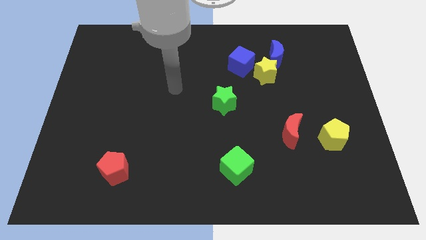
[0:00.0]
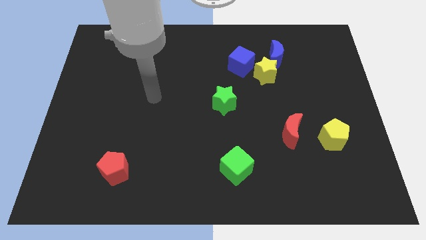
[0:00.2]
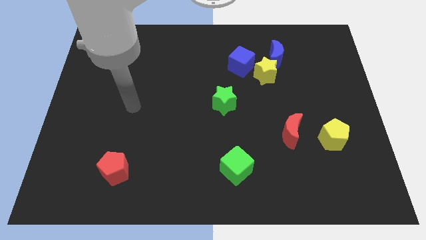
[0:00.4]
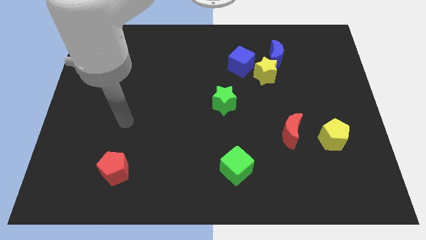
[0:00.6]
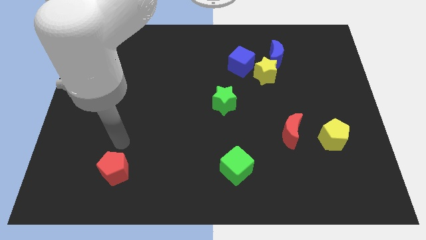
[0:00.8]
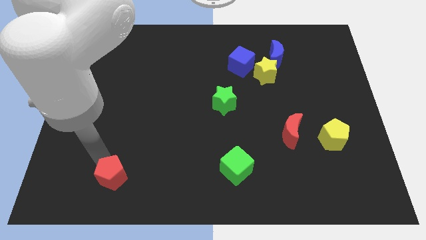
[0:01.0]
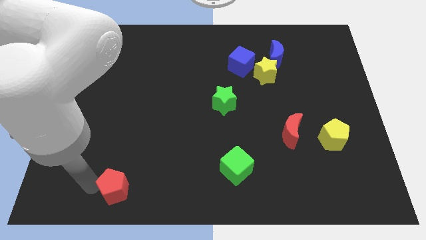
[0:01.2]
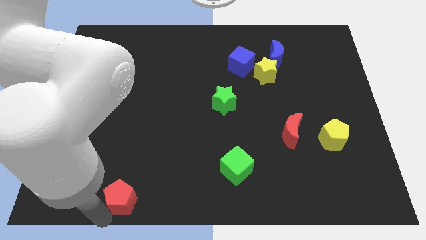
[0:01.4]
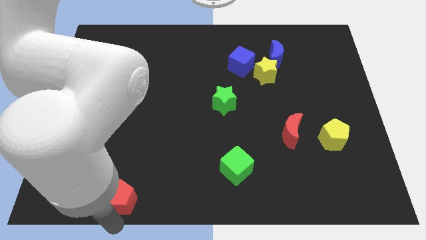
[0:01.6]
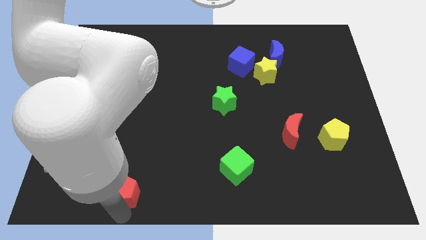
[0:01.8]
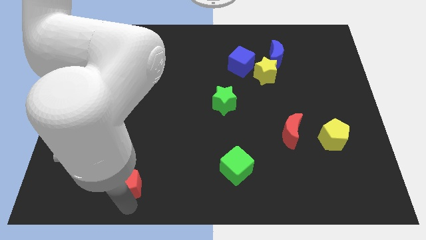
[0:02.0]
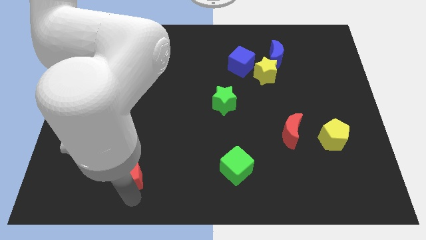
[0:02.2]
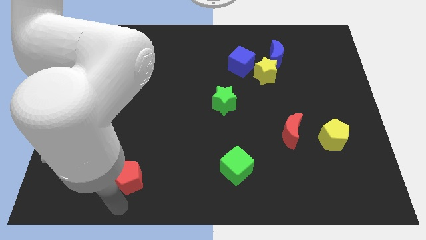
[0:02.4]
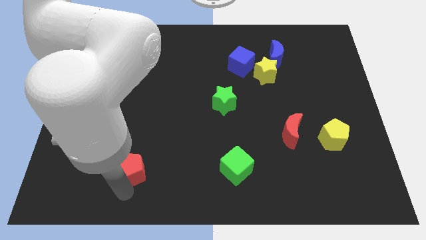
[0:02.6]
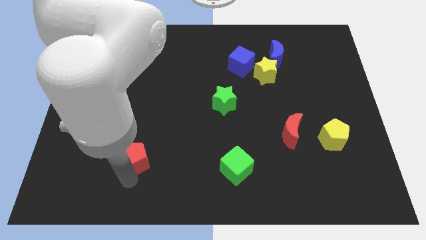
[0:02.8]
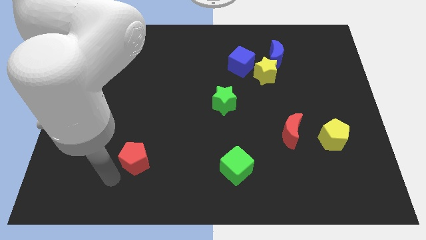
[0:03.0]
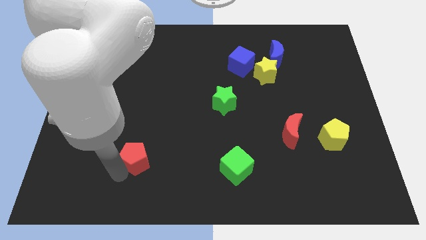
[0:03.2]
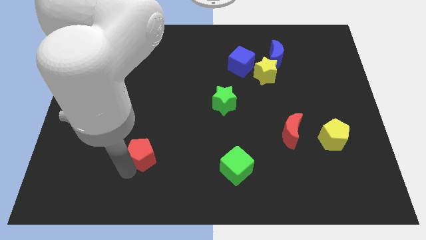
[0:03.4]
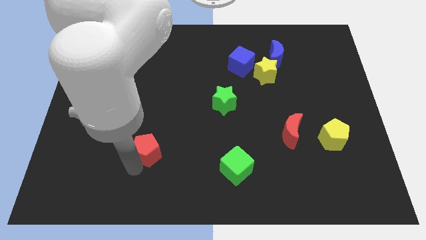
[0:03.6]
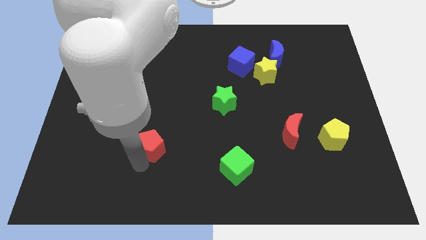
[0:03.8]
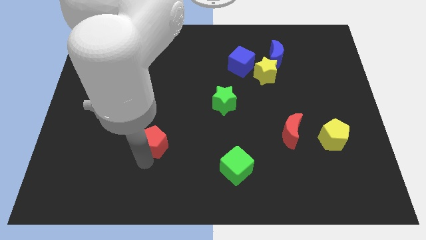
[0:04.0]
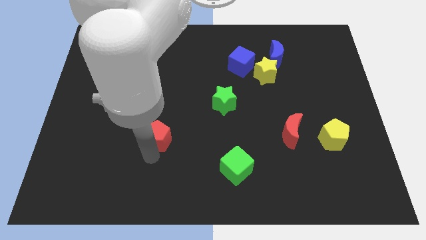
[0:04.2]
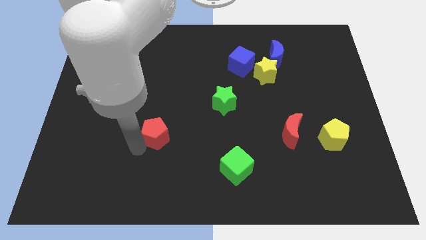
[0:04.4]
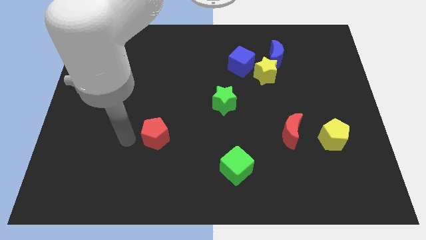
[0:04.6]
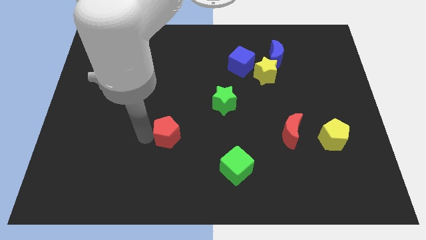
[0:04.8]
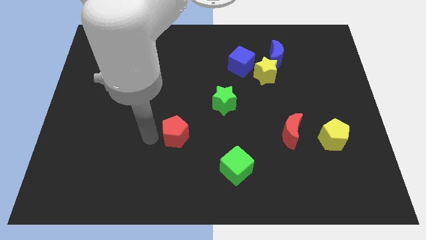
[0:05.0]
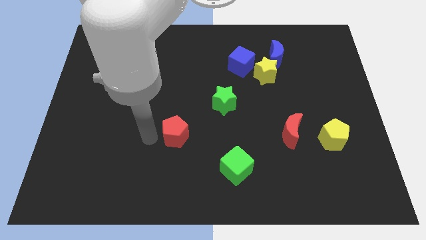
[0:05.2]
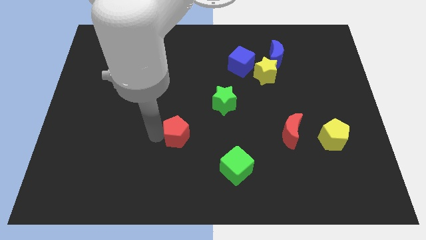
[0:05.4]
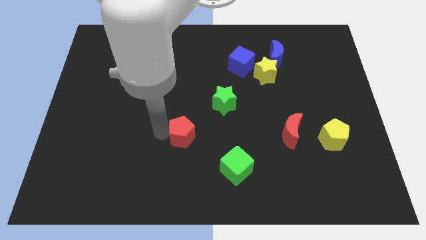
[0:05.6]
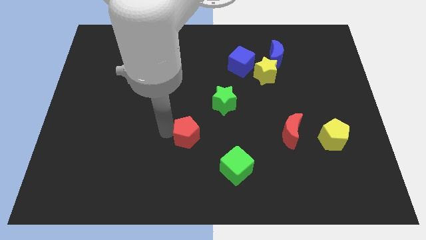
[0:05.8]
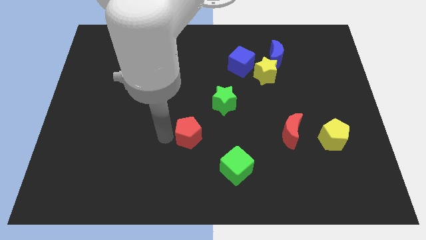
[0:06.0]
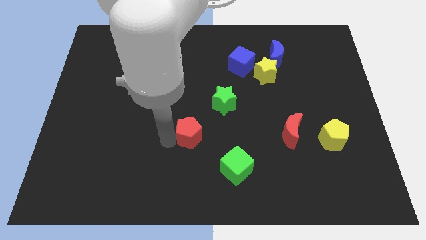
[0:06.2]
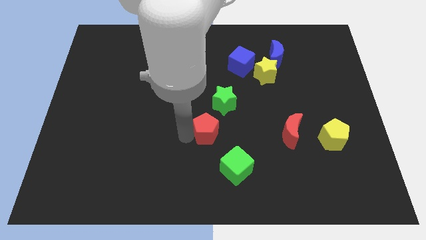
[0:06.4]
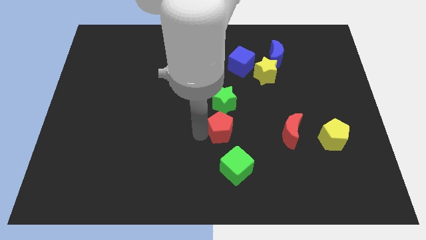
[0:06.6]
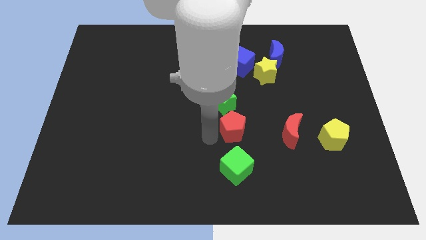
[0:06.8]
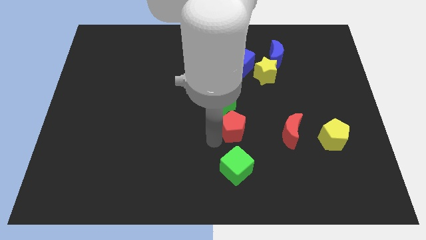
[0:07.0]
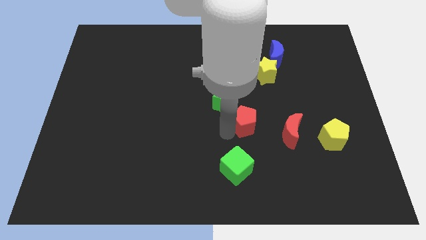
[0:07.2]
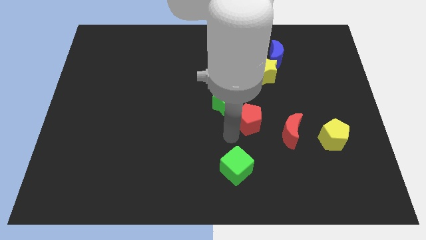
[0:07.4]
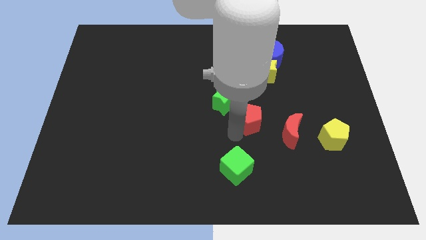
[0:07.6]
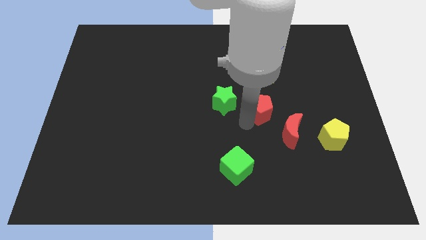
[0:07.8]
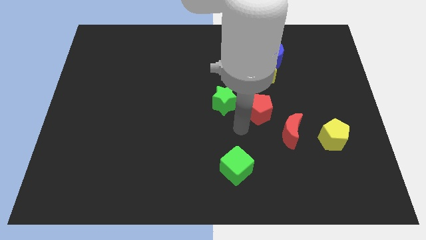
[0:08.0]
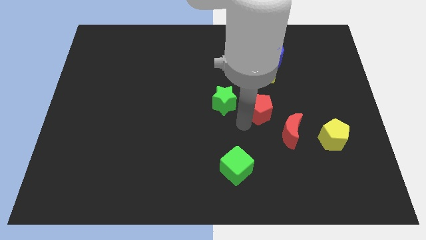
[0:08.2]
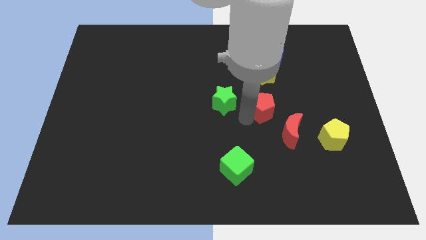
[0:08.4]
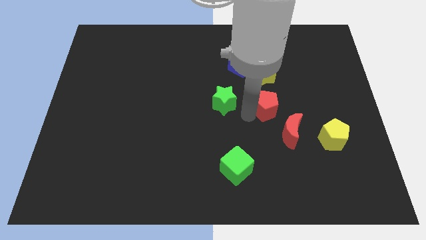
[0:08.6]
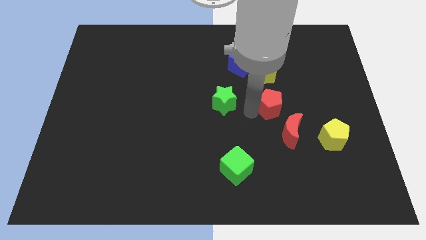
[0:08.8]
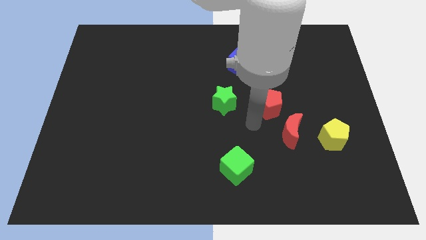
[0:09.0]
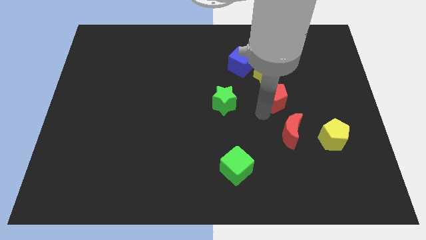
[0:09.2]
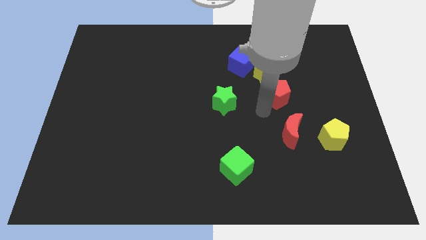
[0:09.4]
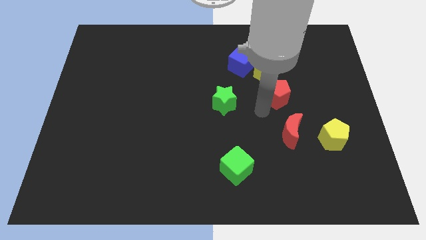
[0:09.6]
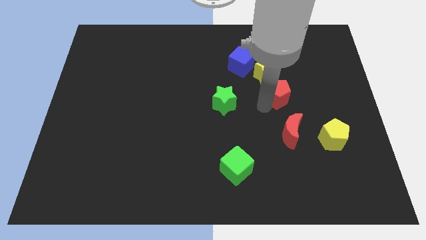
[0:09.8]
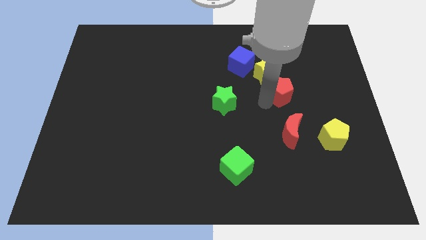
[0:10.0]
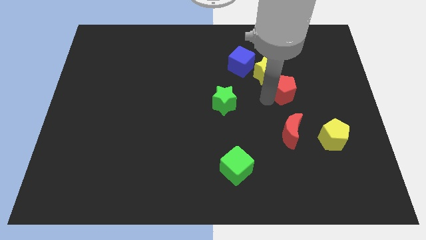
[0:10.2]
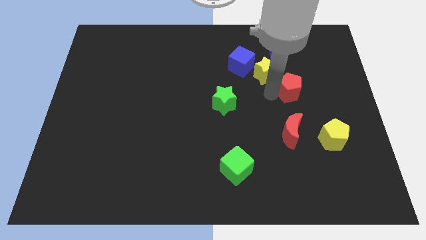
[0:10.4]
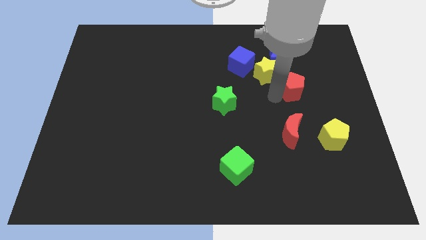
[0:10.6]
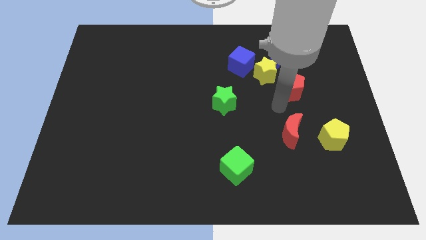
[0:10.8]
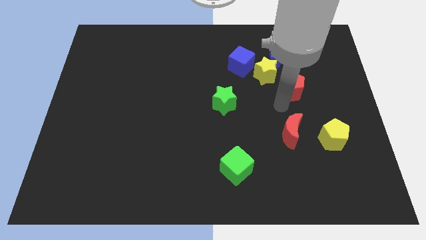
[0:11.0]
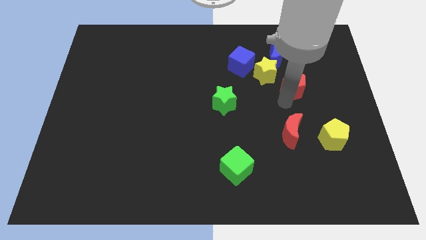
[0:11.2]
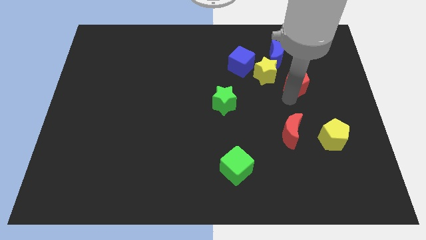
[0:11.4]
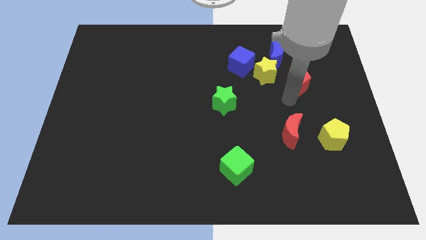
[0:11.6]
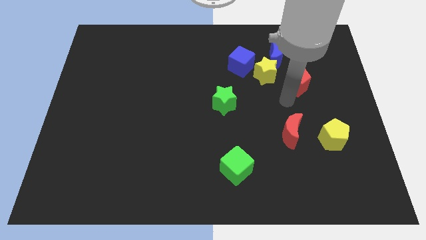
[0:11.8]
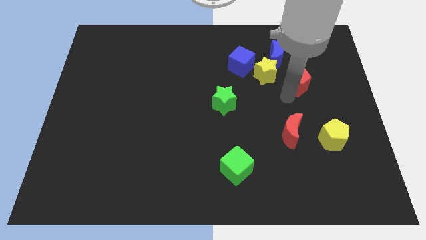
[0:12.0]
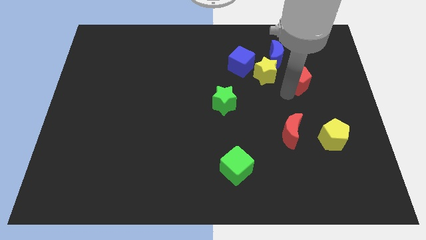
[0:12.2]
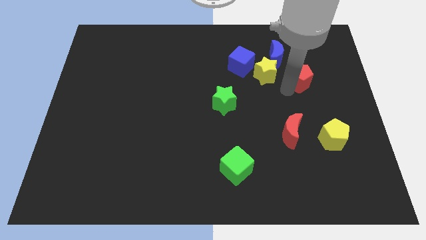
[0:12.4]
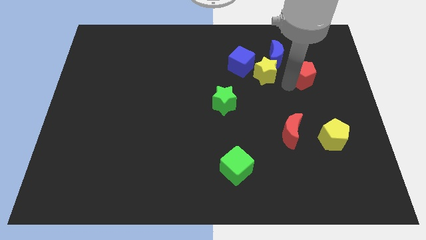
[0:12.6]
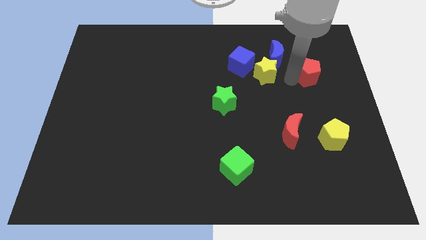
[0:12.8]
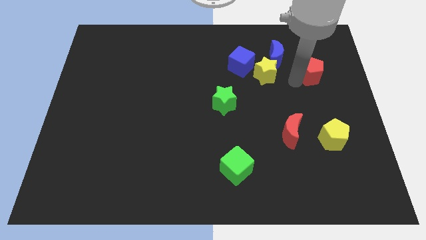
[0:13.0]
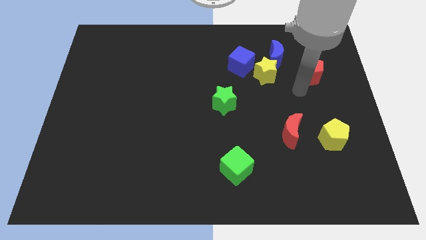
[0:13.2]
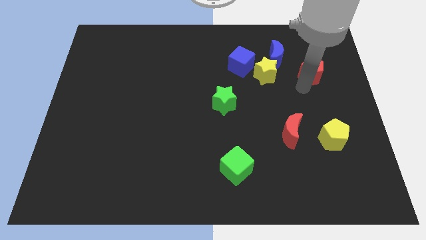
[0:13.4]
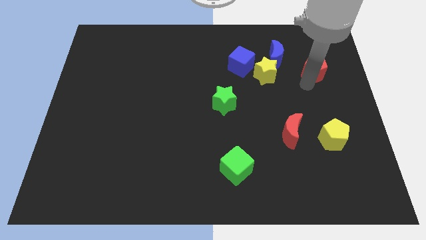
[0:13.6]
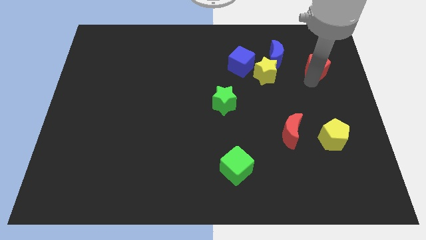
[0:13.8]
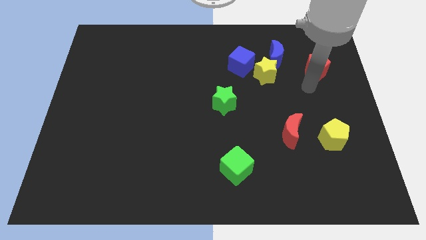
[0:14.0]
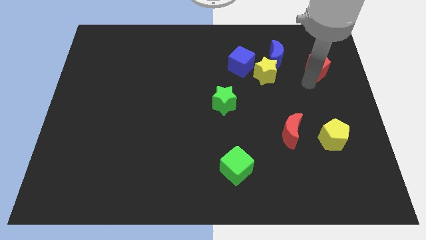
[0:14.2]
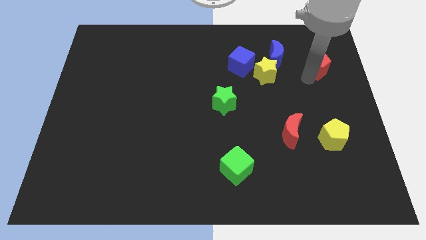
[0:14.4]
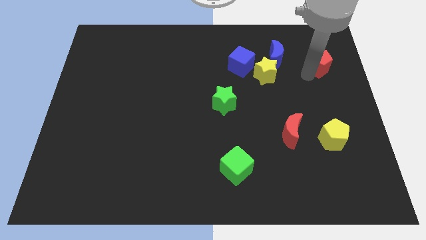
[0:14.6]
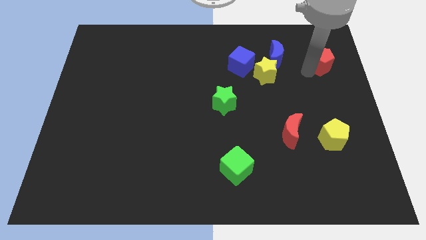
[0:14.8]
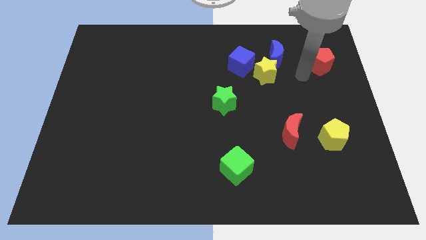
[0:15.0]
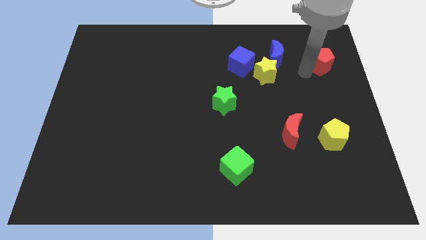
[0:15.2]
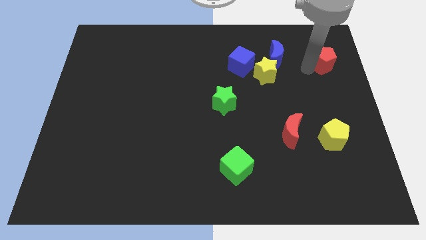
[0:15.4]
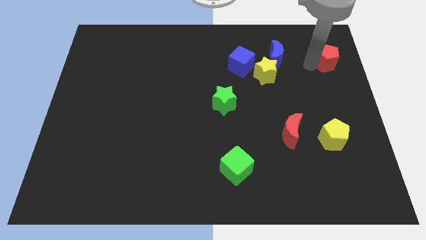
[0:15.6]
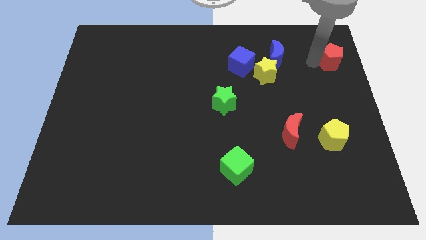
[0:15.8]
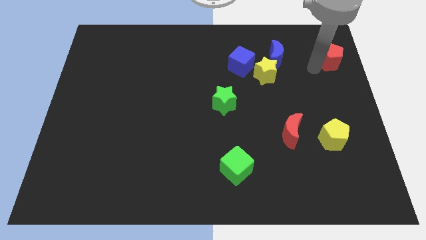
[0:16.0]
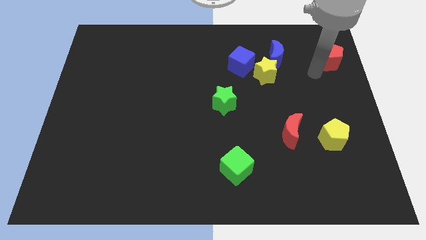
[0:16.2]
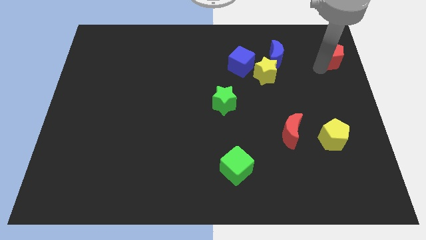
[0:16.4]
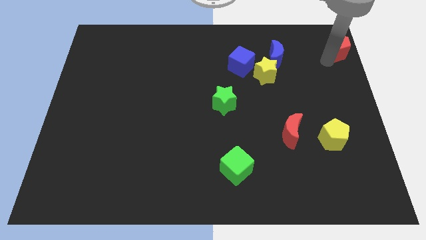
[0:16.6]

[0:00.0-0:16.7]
move the red pentagon to the top right of the board
